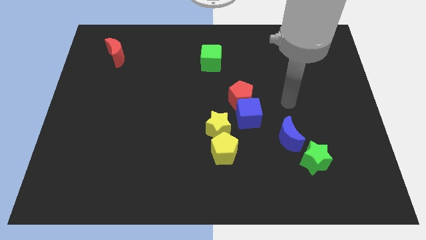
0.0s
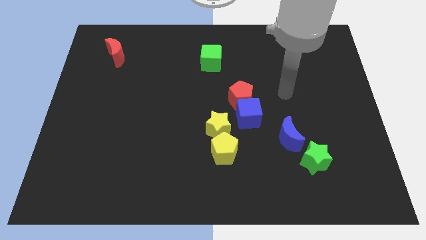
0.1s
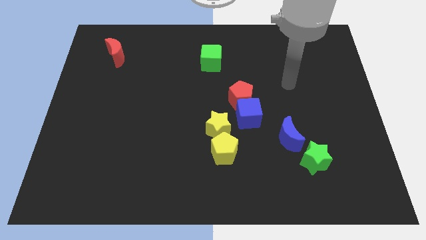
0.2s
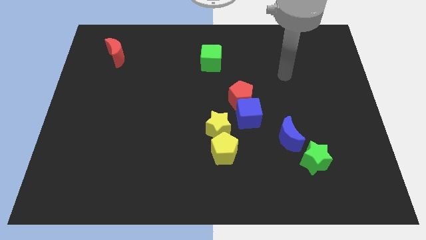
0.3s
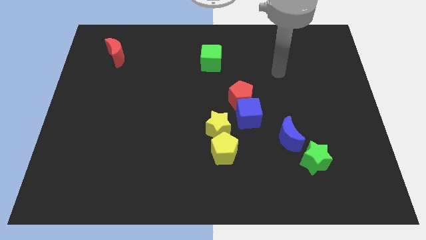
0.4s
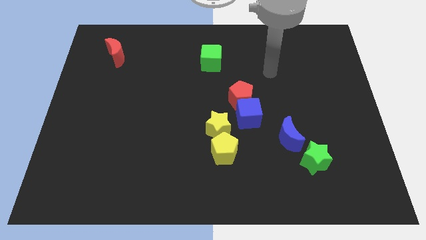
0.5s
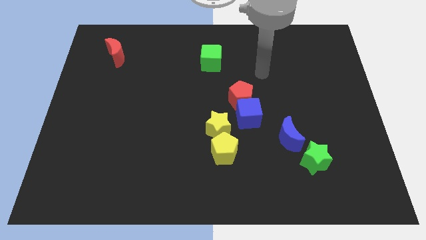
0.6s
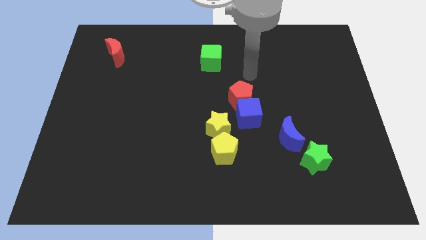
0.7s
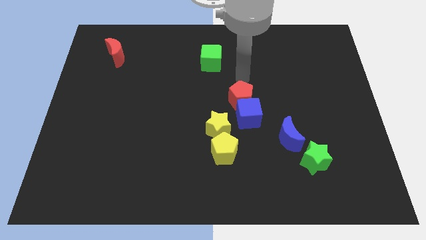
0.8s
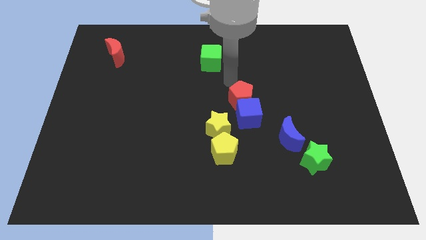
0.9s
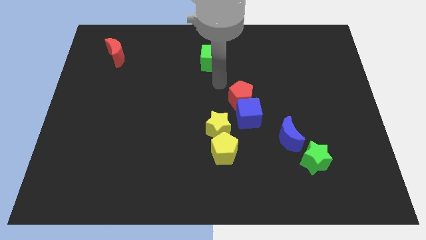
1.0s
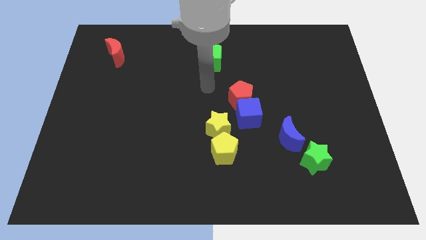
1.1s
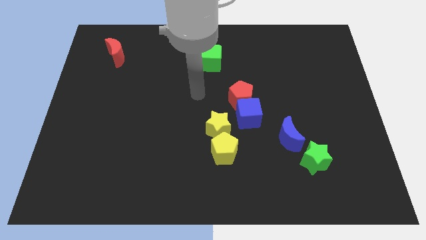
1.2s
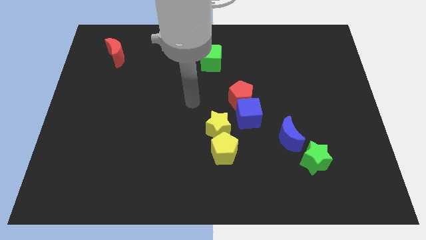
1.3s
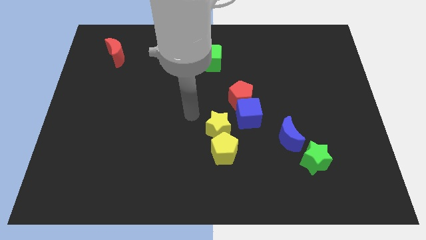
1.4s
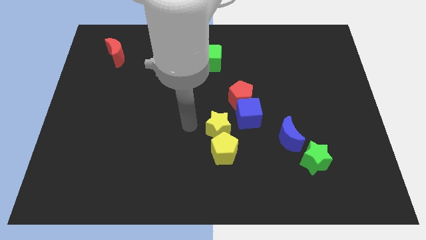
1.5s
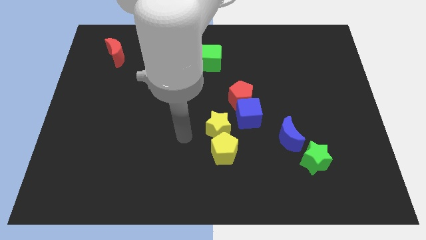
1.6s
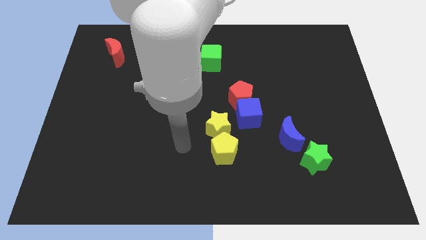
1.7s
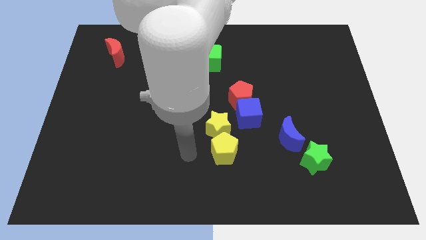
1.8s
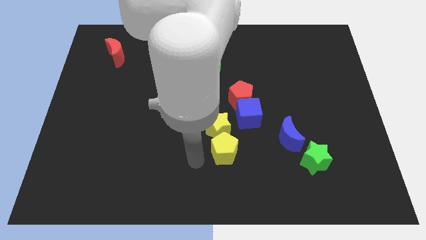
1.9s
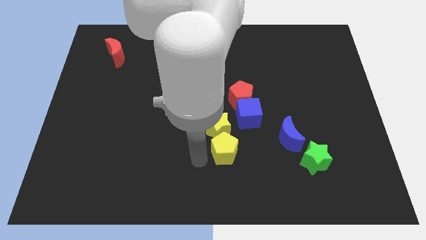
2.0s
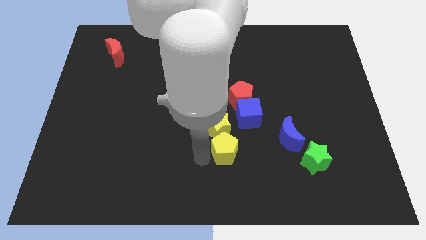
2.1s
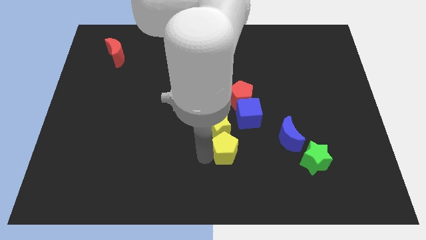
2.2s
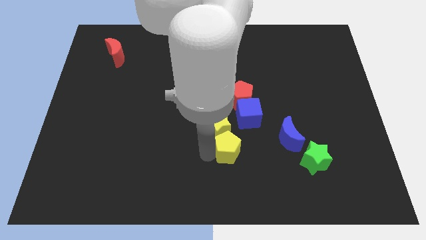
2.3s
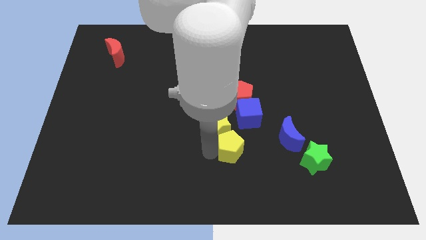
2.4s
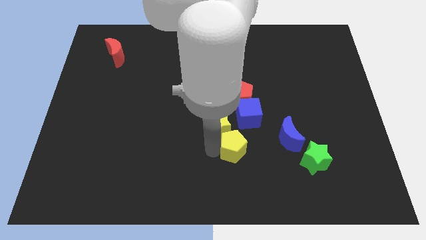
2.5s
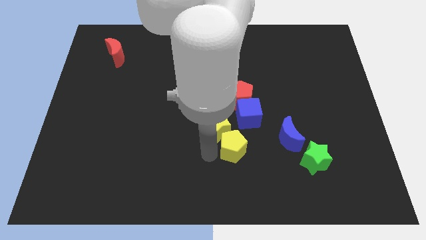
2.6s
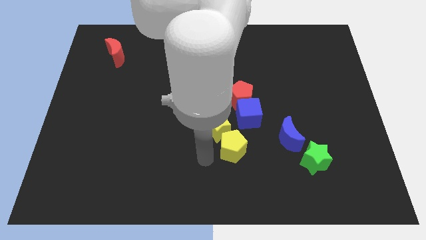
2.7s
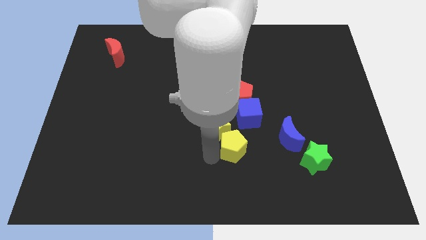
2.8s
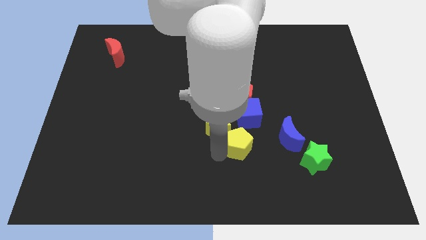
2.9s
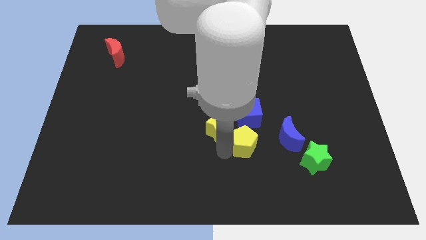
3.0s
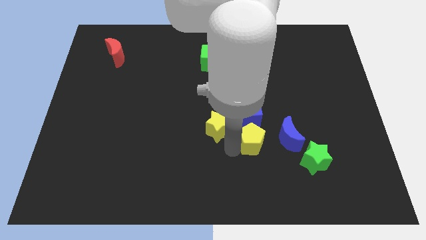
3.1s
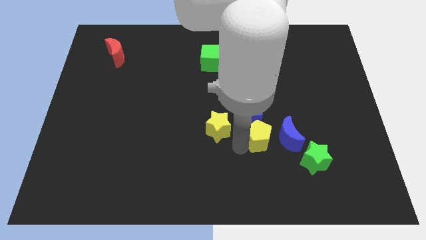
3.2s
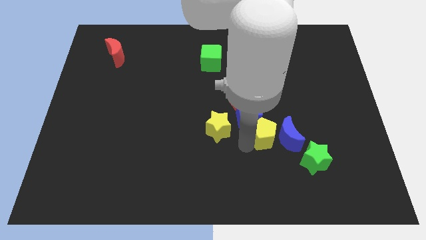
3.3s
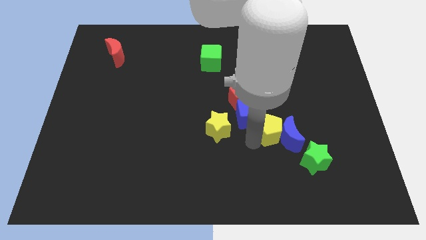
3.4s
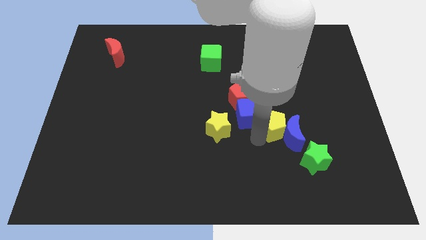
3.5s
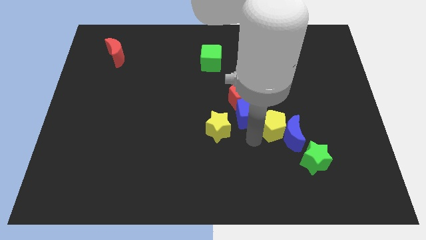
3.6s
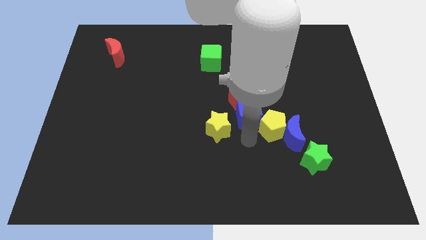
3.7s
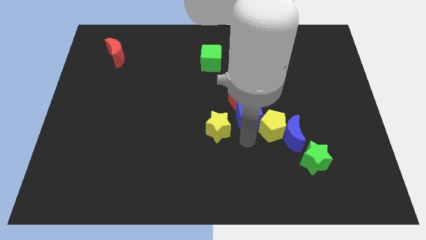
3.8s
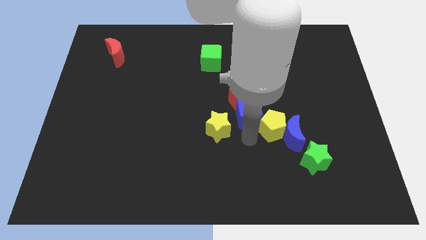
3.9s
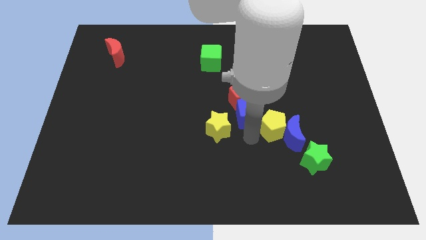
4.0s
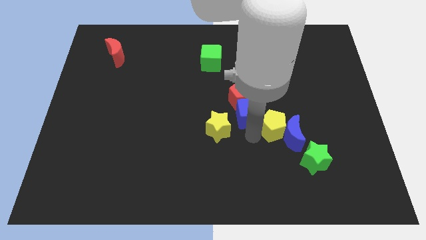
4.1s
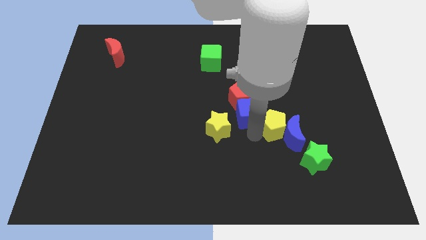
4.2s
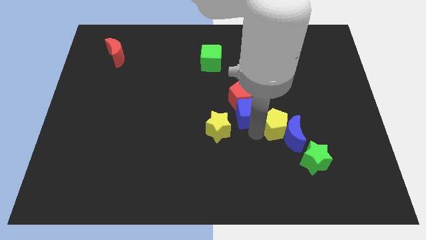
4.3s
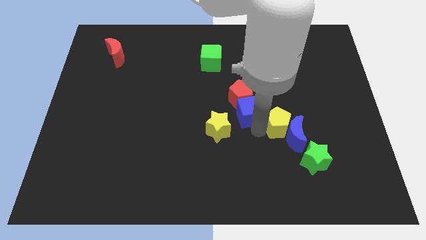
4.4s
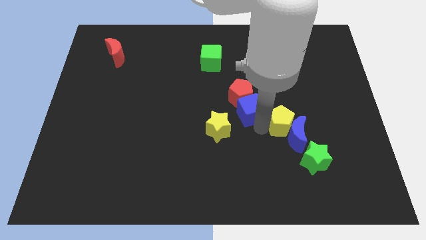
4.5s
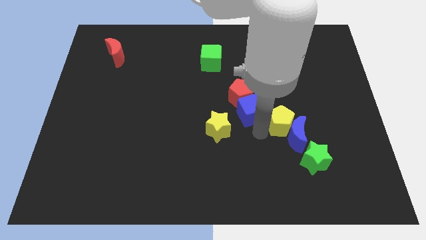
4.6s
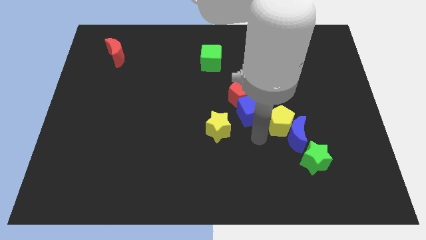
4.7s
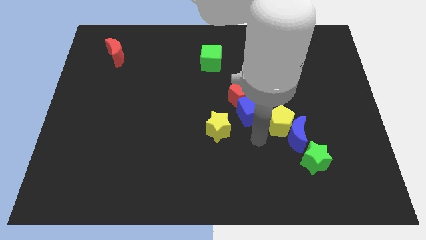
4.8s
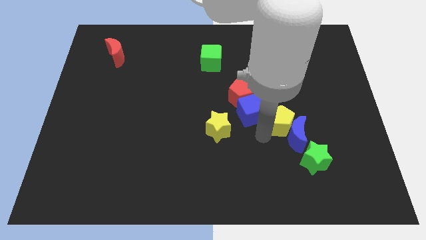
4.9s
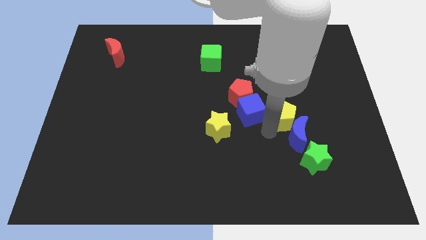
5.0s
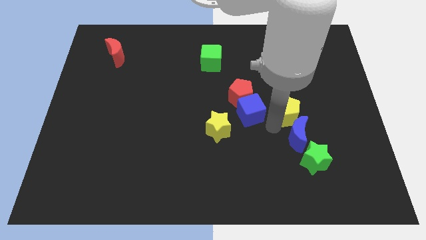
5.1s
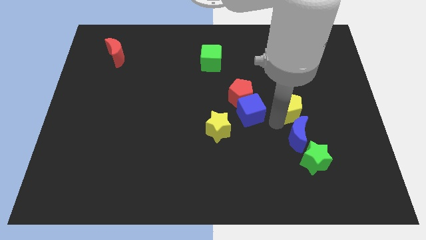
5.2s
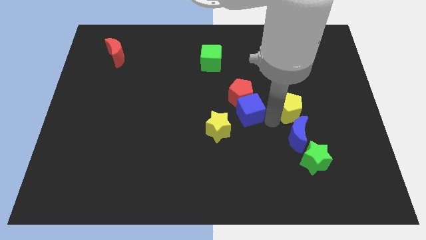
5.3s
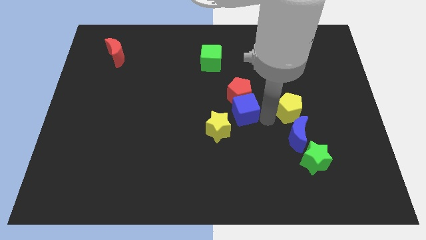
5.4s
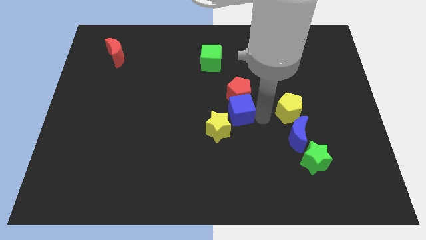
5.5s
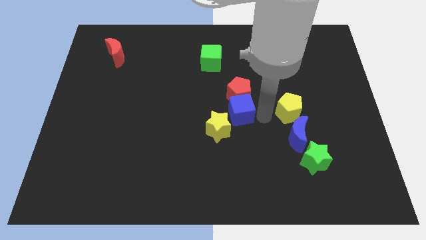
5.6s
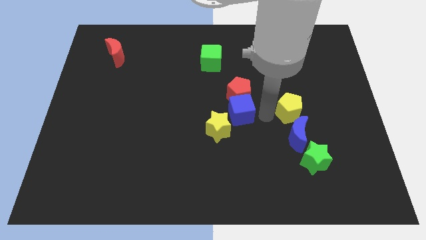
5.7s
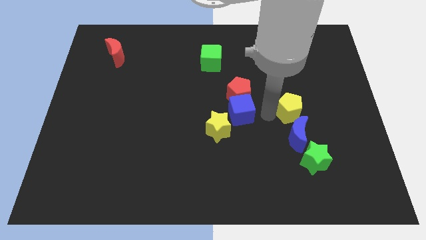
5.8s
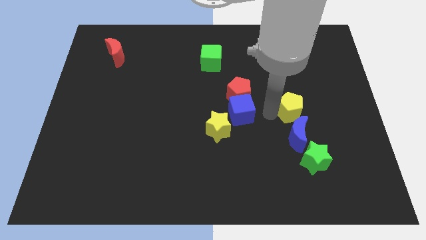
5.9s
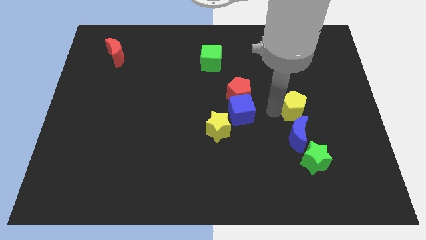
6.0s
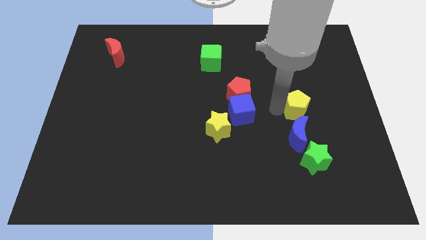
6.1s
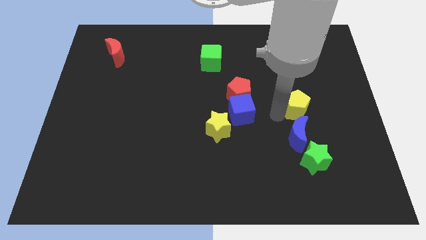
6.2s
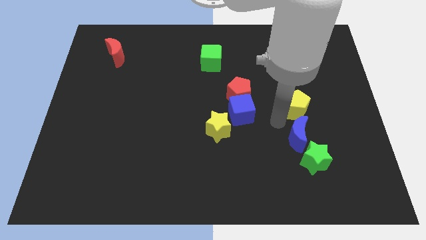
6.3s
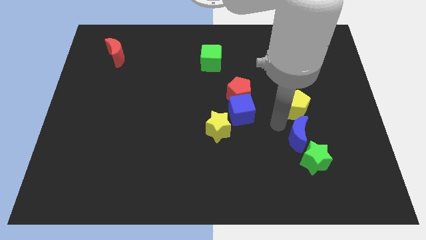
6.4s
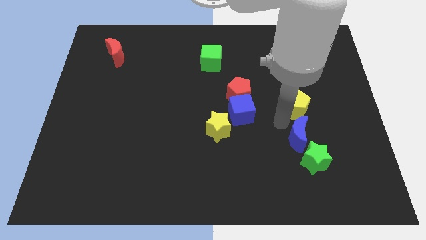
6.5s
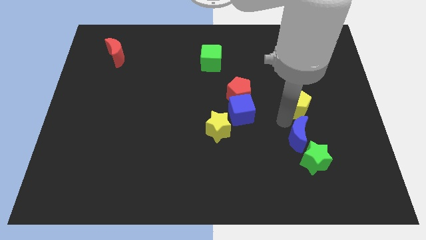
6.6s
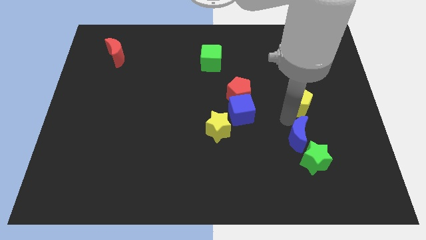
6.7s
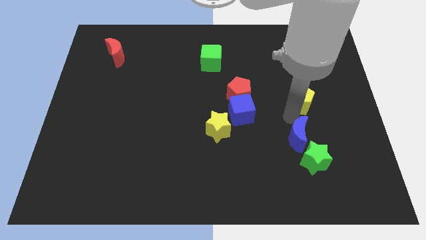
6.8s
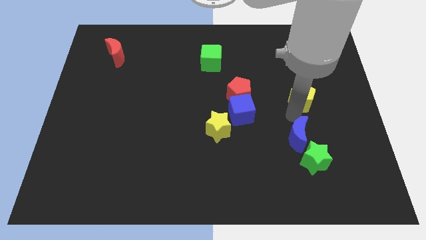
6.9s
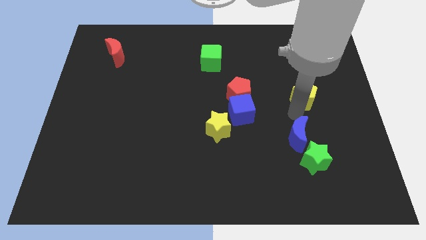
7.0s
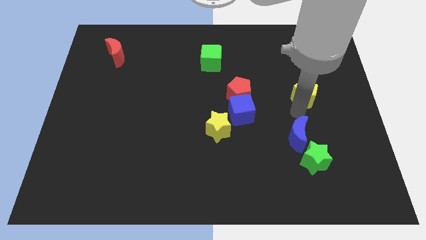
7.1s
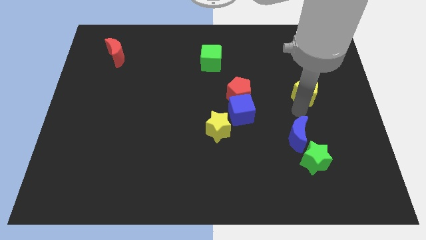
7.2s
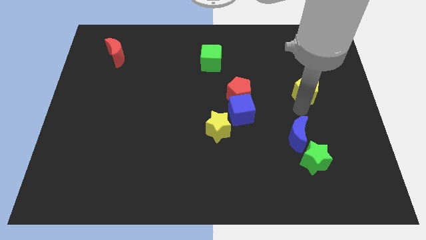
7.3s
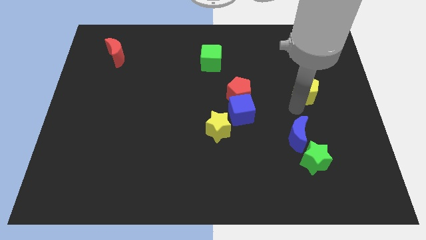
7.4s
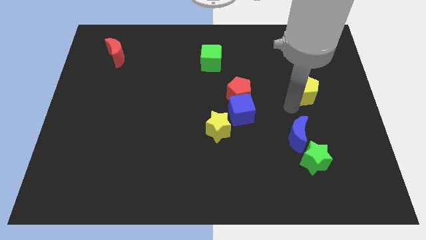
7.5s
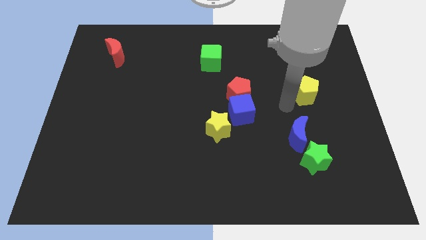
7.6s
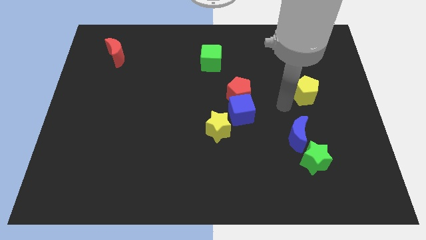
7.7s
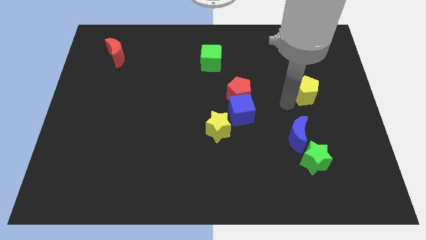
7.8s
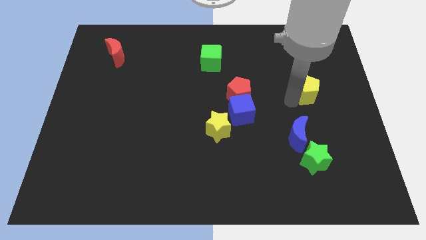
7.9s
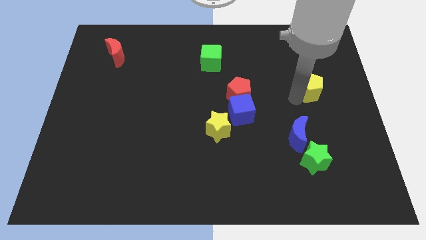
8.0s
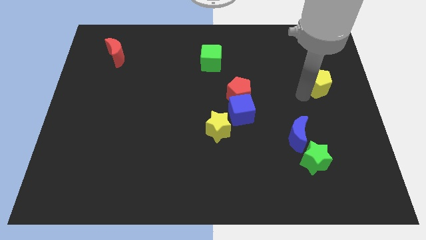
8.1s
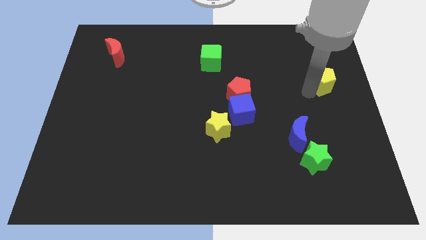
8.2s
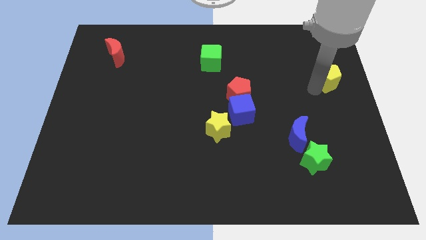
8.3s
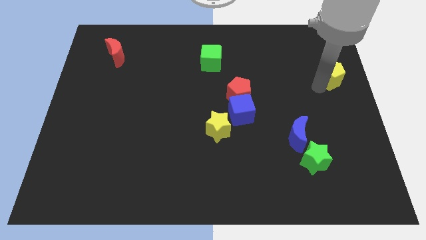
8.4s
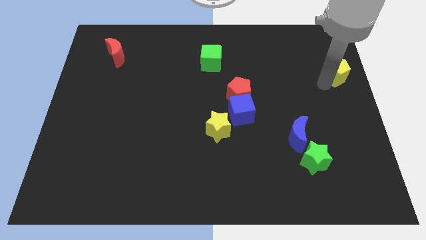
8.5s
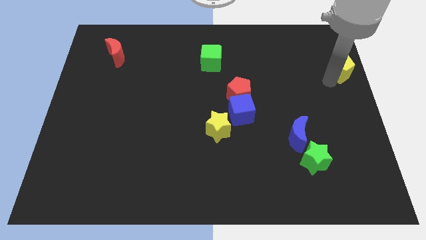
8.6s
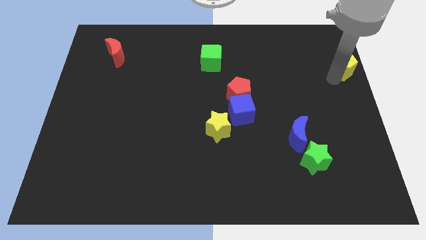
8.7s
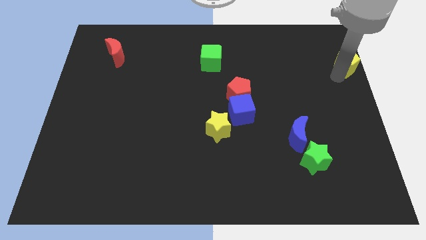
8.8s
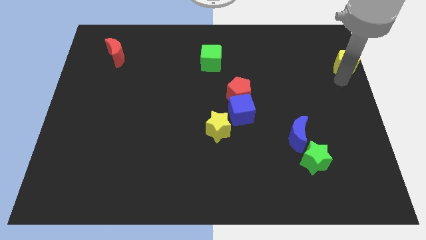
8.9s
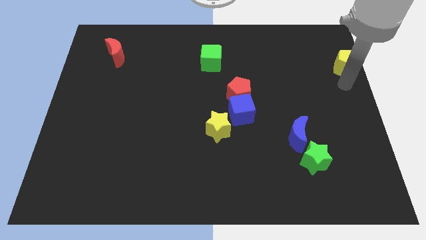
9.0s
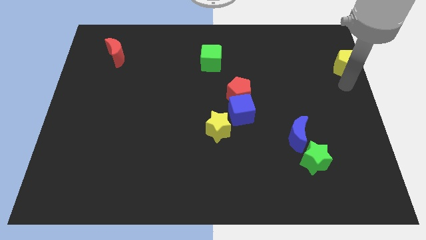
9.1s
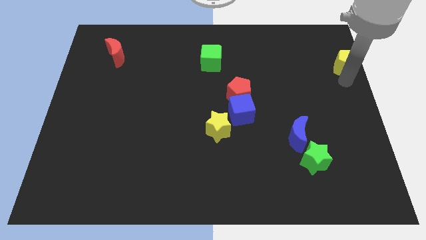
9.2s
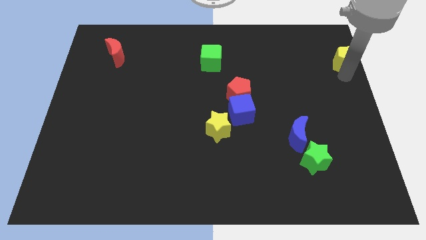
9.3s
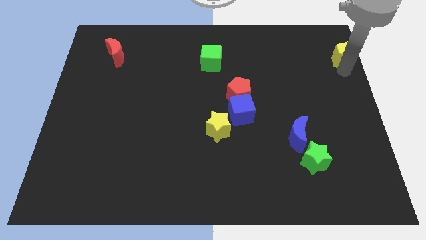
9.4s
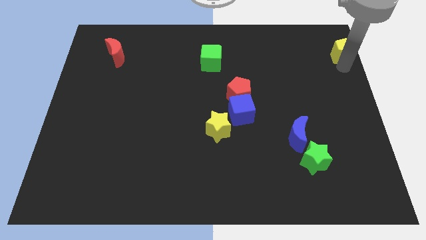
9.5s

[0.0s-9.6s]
move the yellow pentagon to the upper right corner
